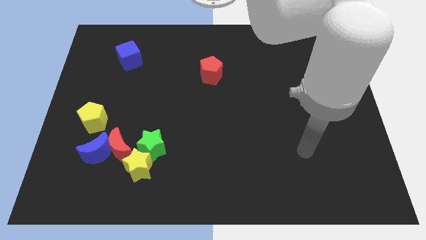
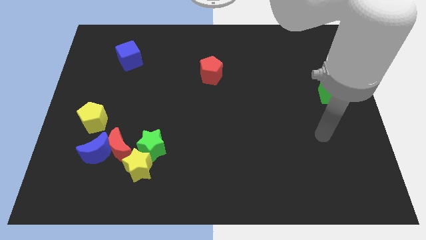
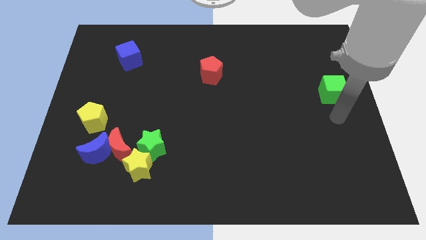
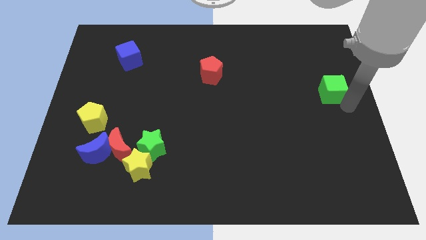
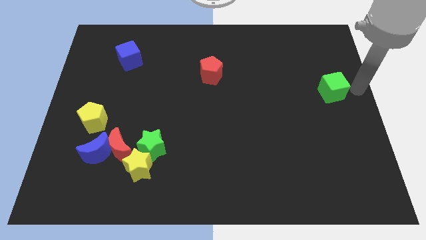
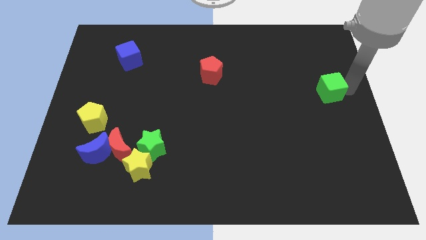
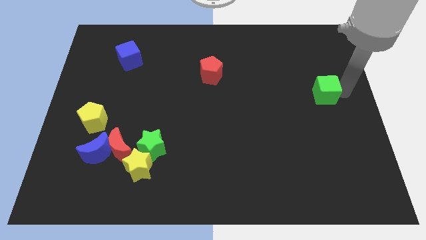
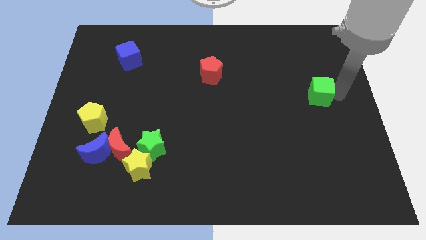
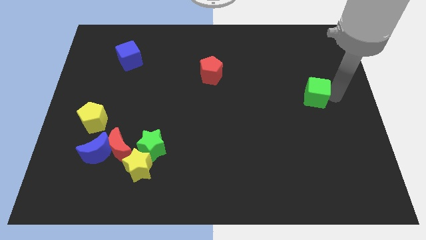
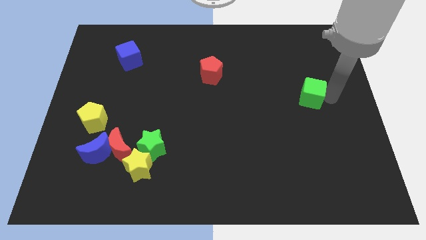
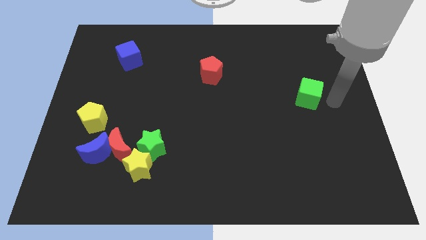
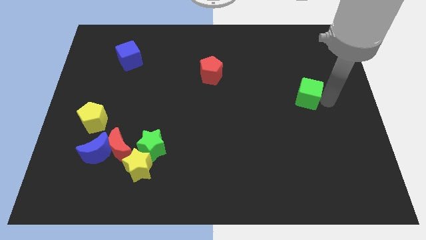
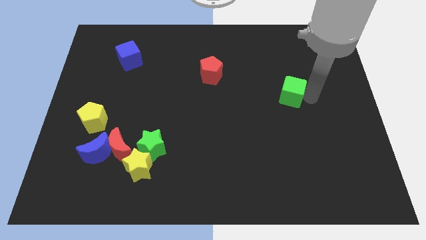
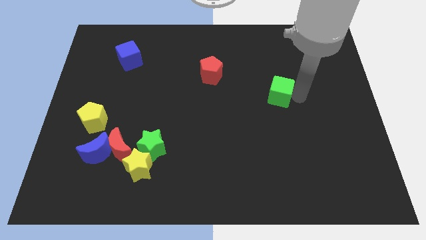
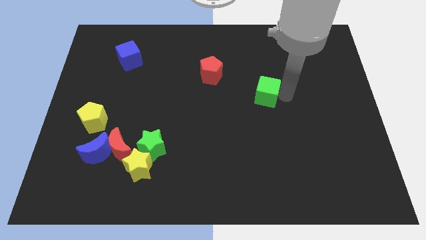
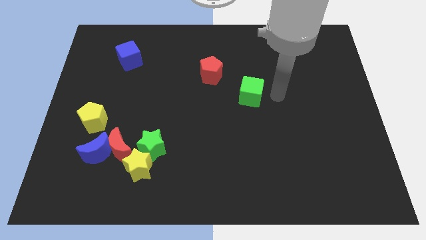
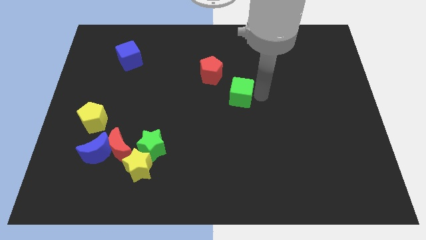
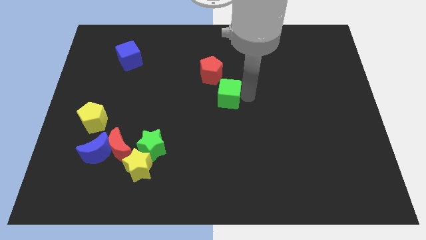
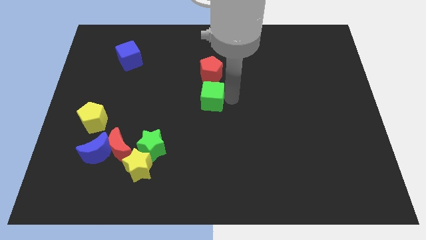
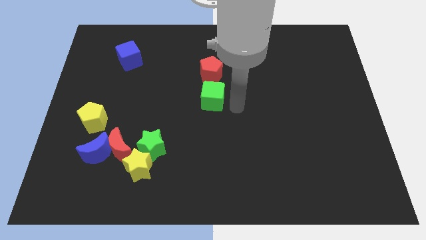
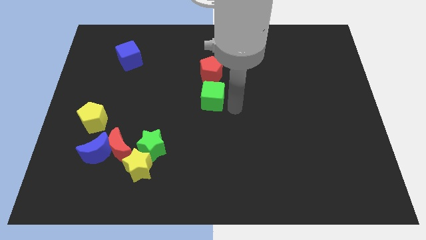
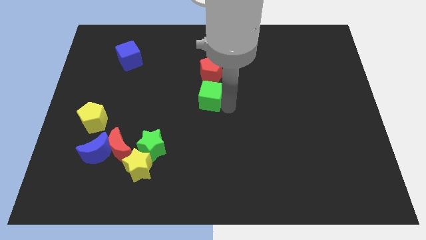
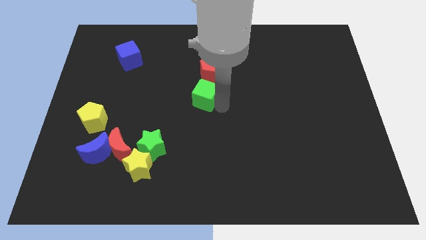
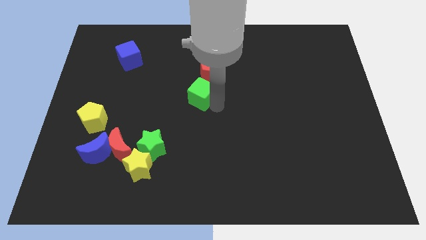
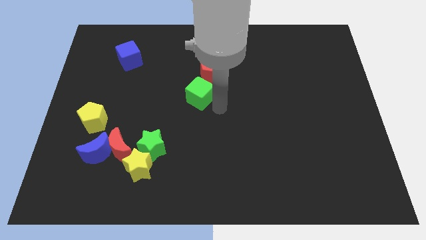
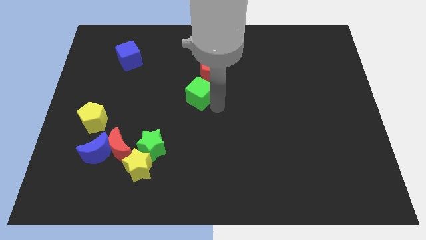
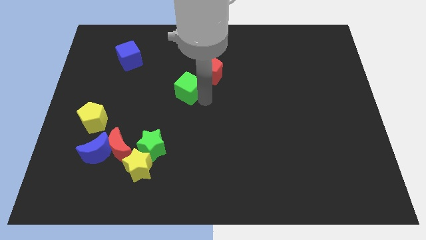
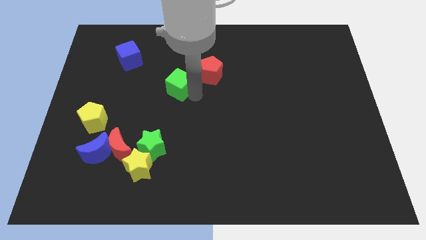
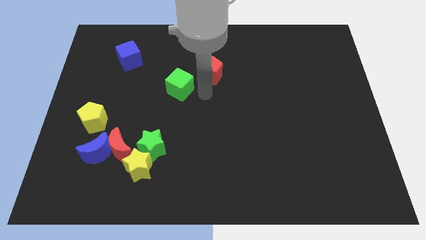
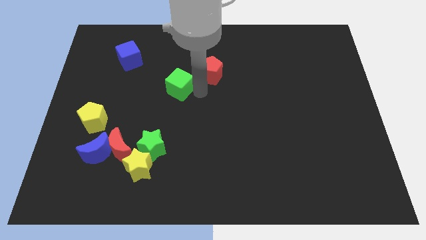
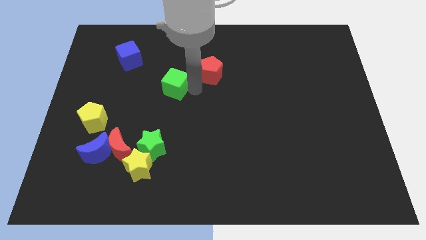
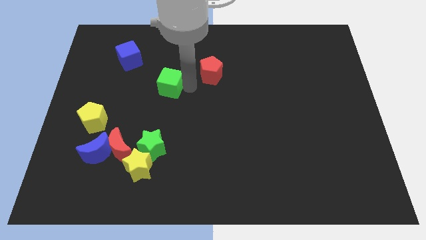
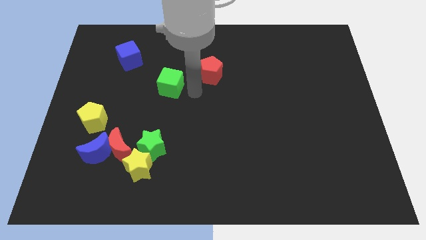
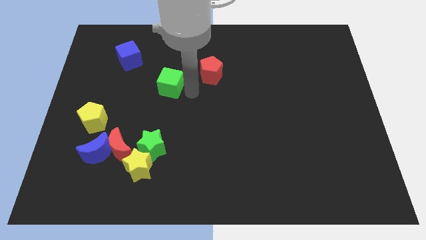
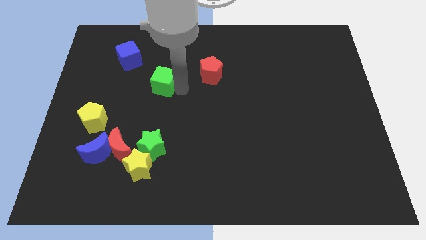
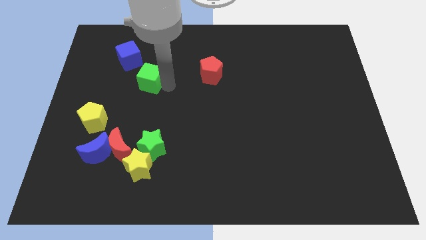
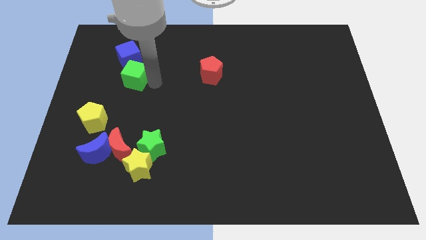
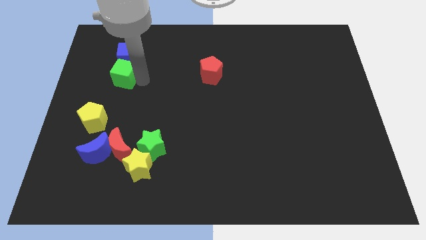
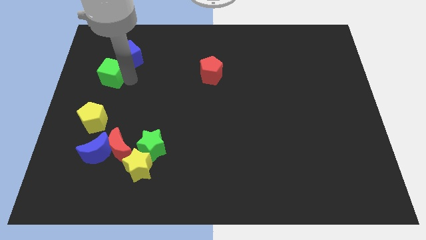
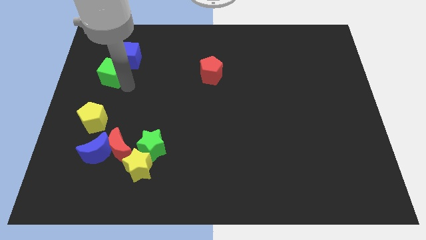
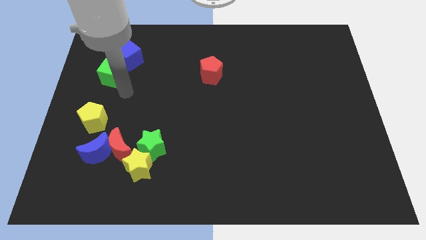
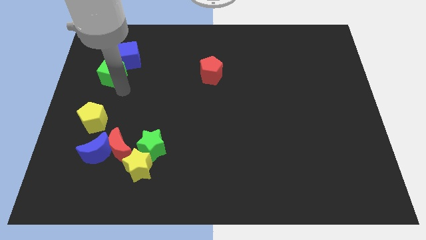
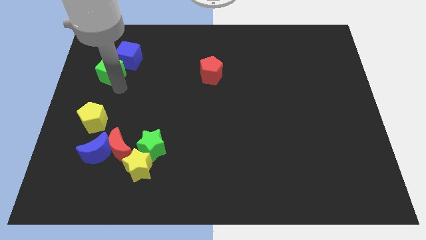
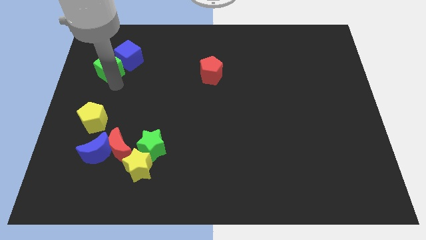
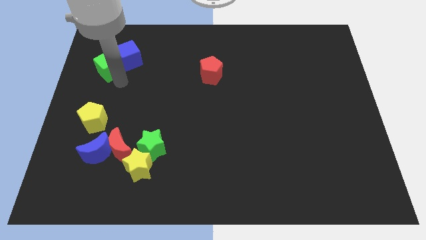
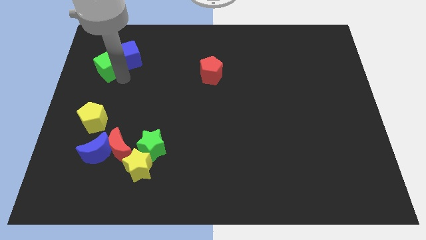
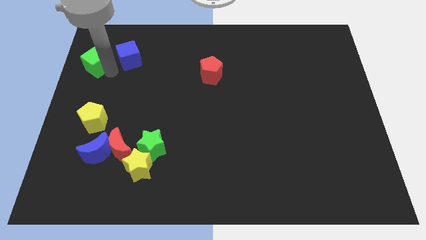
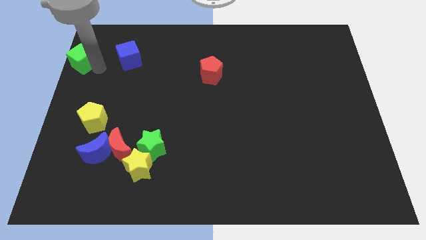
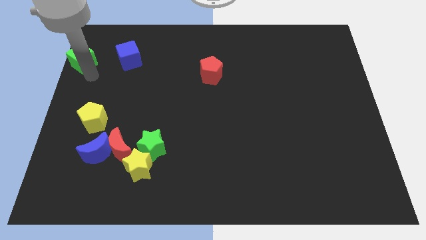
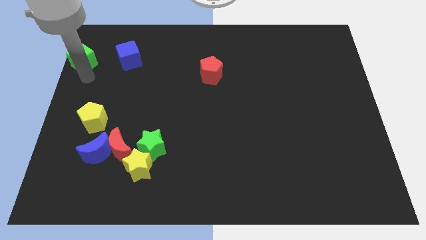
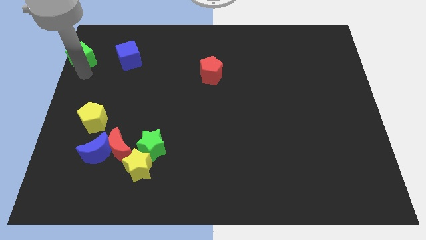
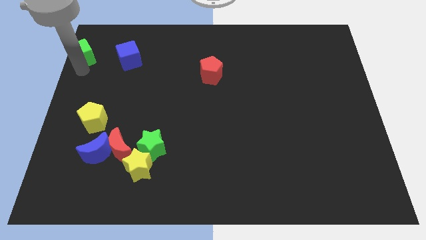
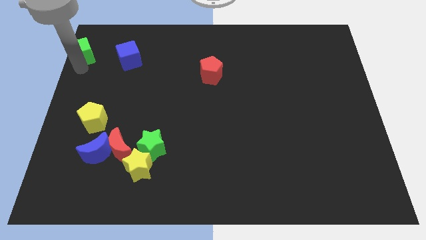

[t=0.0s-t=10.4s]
slide the green cube to the top left of the board
